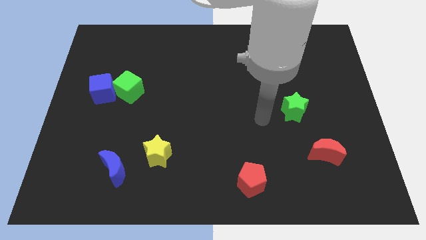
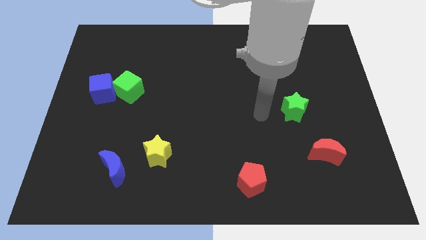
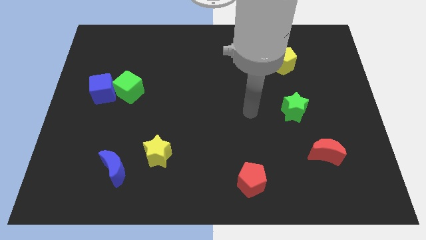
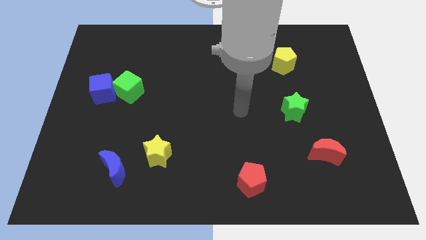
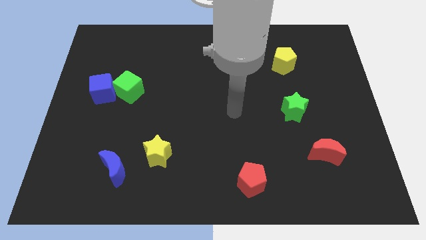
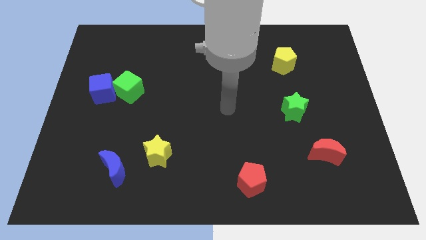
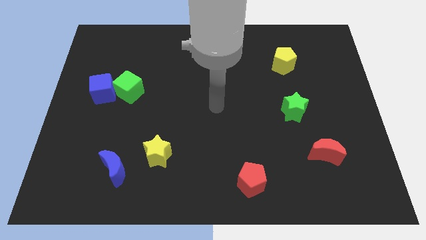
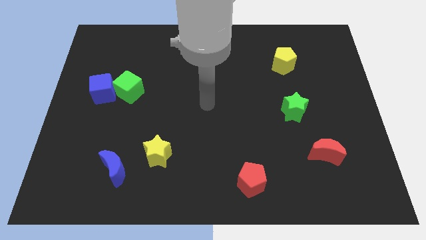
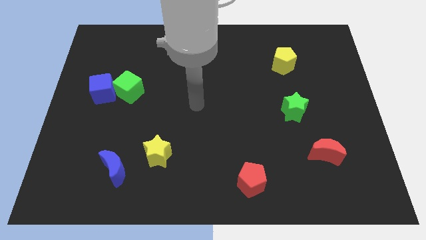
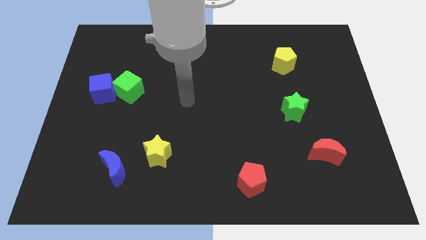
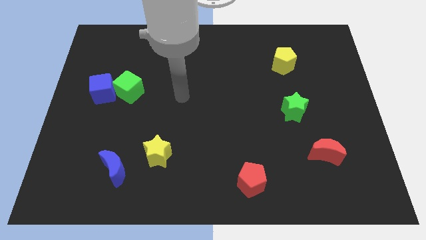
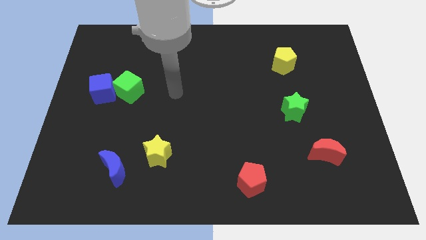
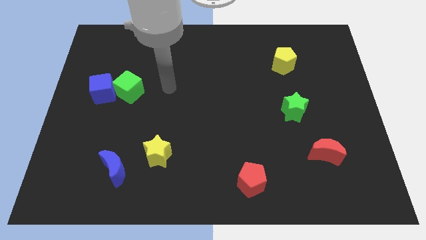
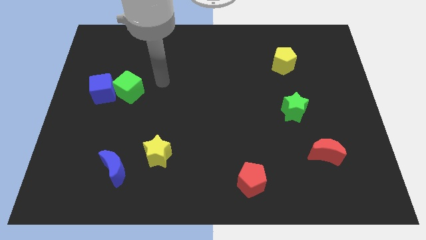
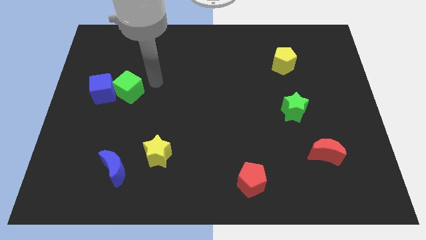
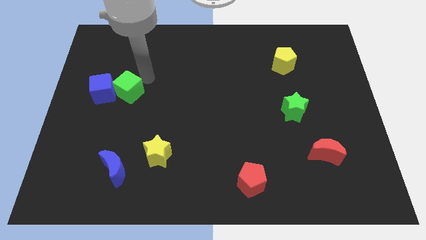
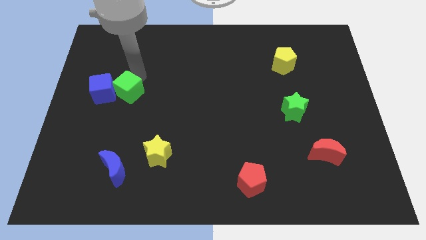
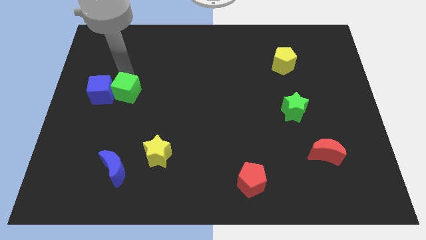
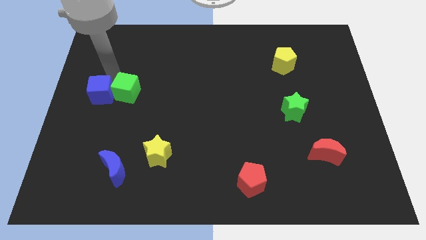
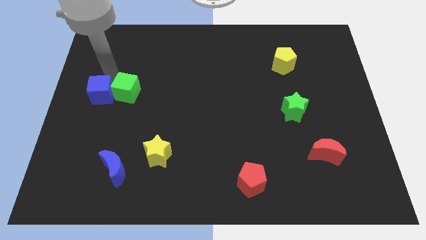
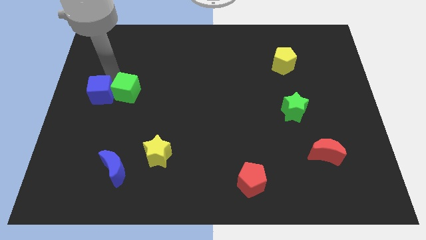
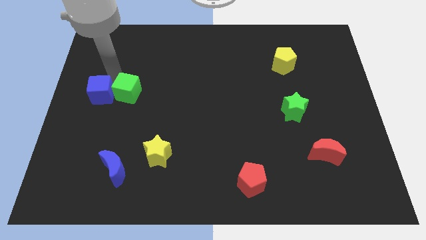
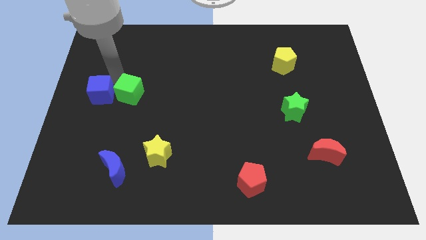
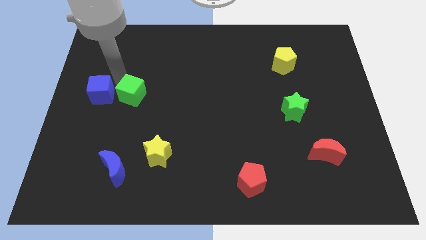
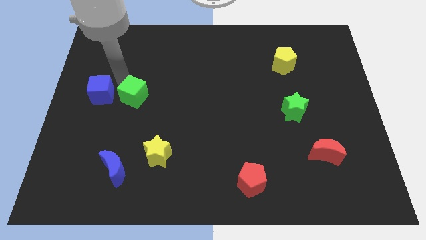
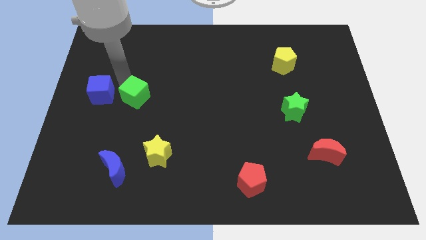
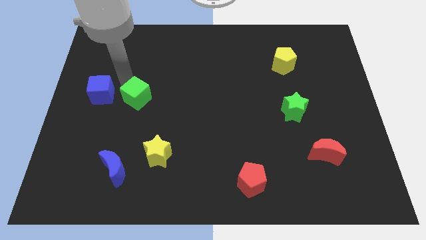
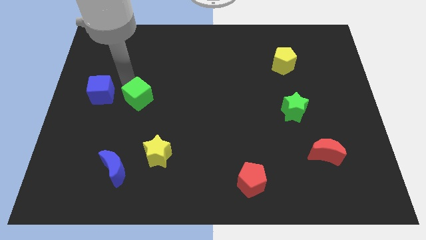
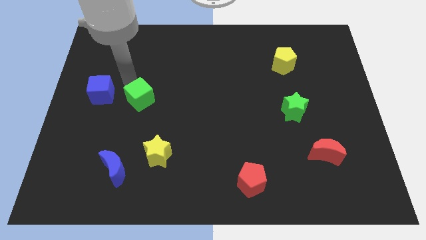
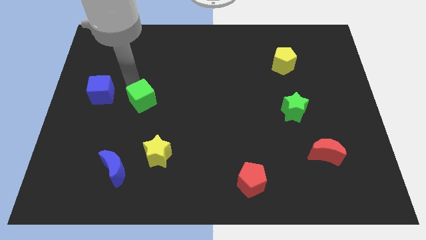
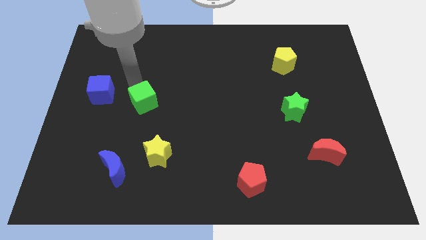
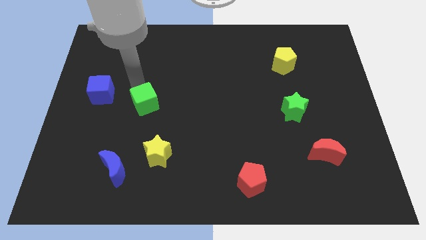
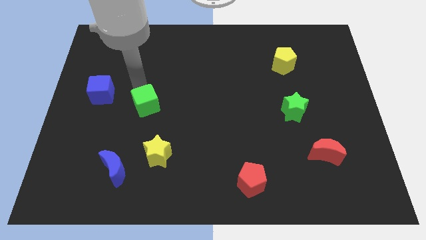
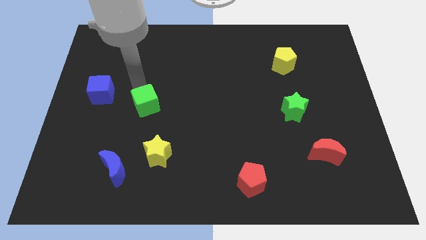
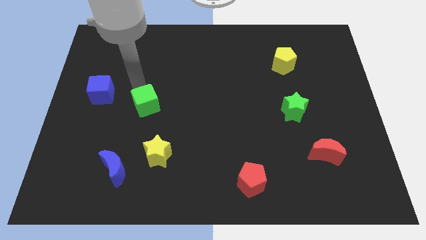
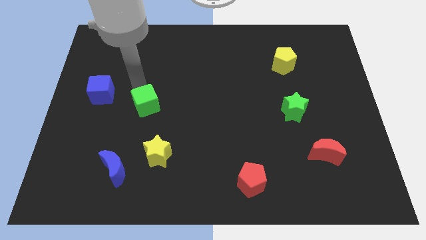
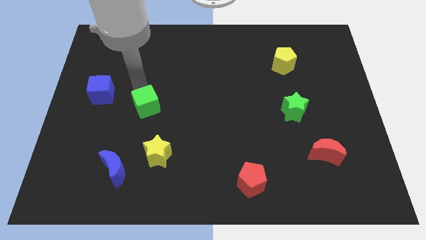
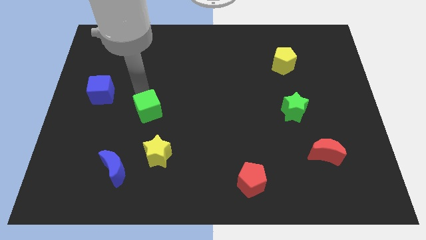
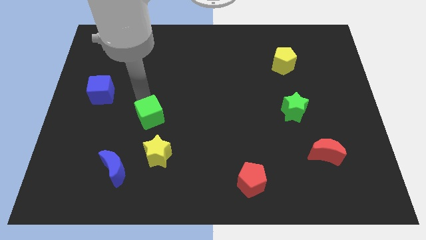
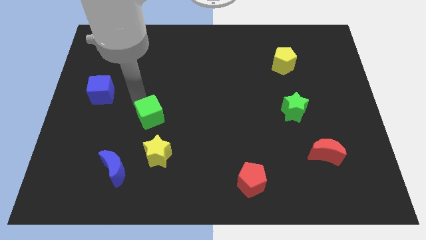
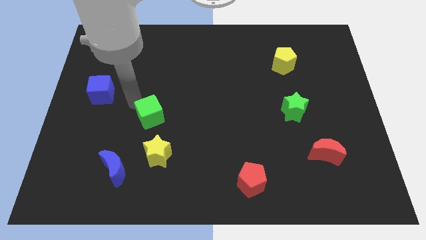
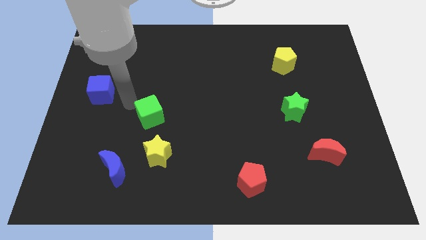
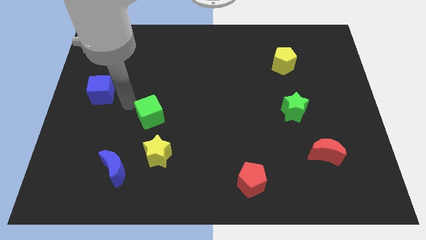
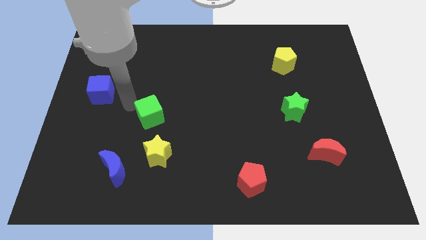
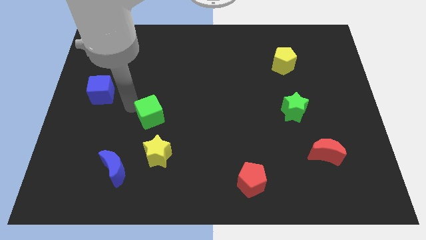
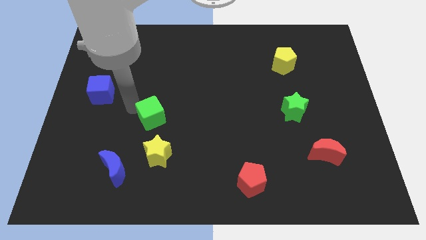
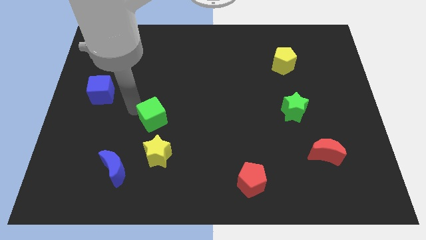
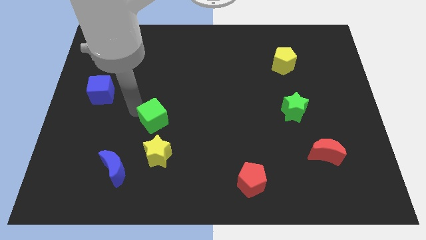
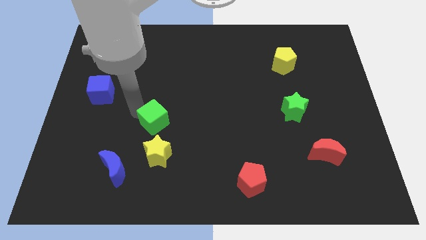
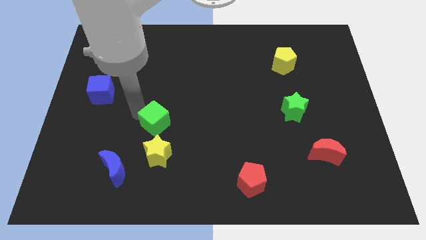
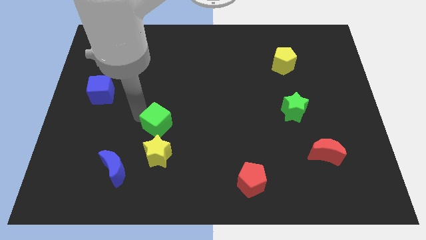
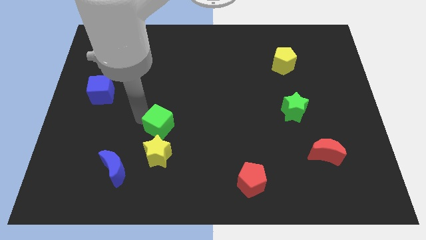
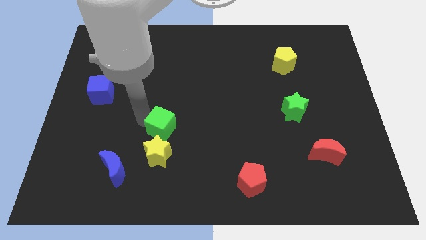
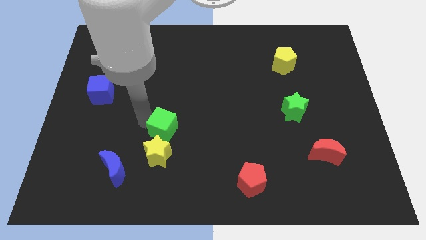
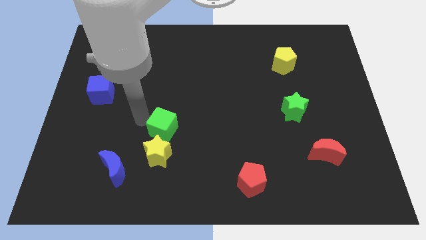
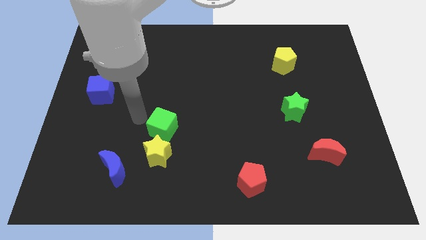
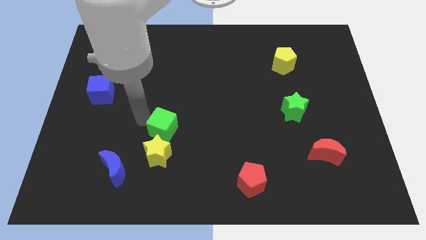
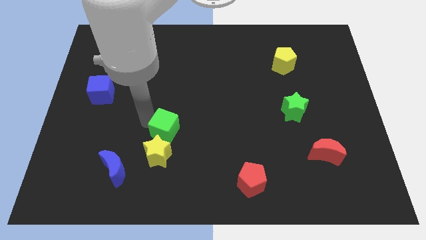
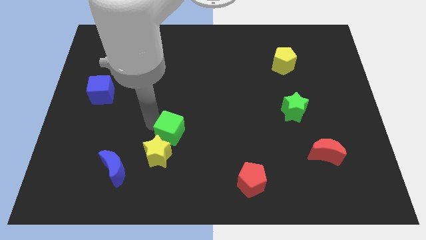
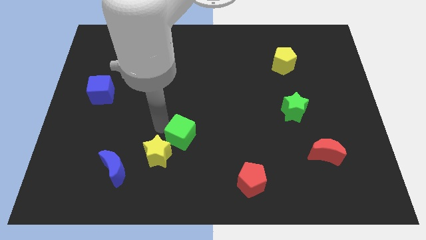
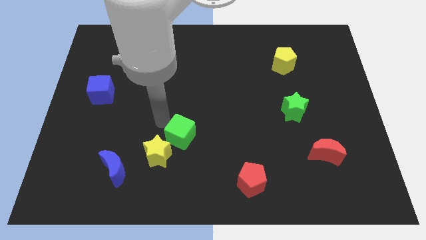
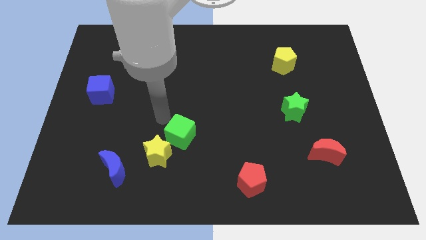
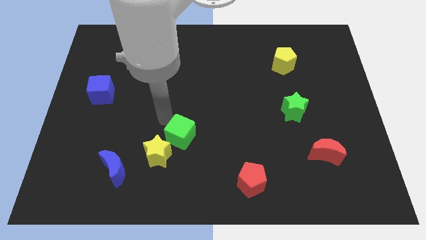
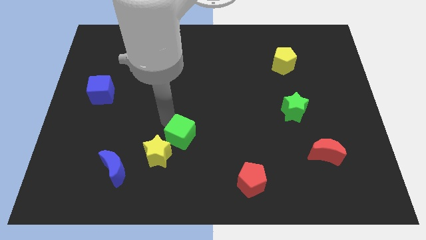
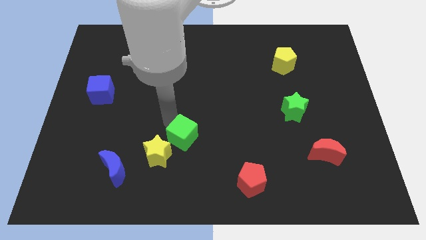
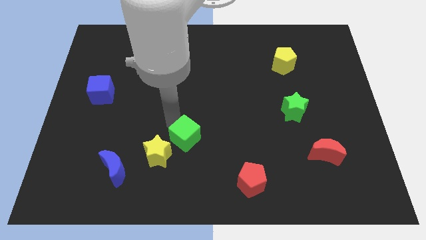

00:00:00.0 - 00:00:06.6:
move the green cube down and right

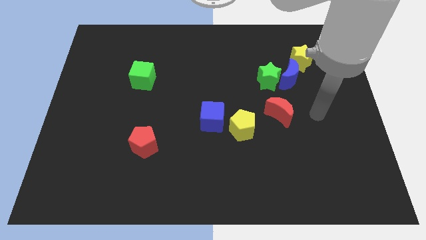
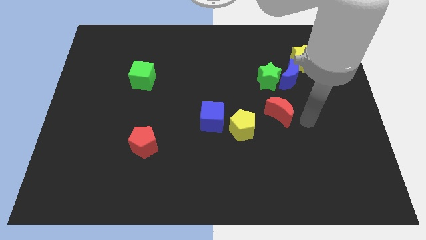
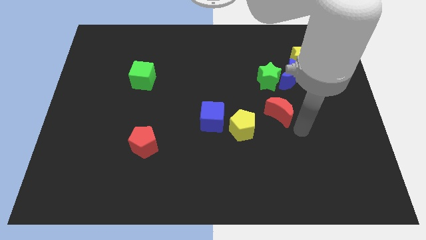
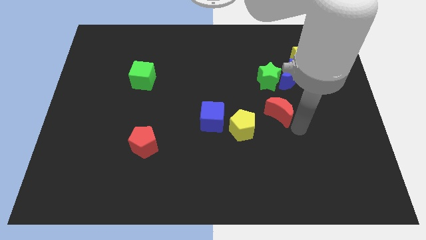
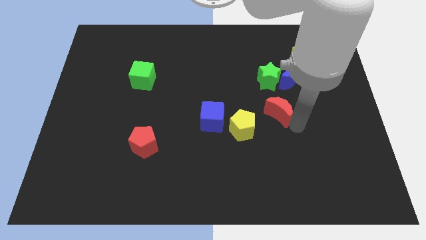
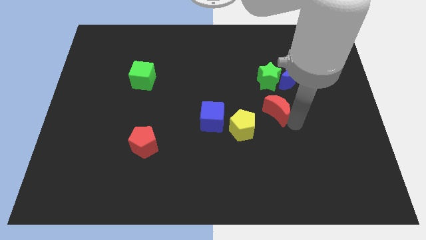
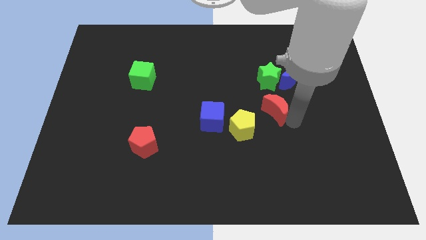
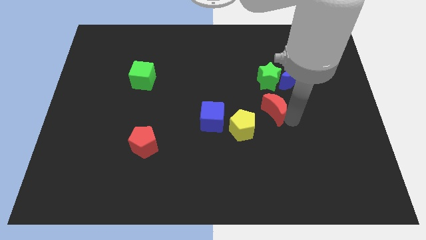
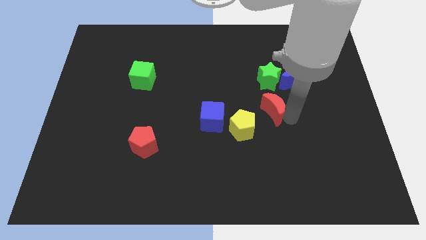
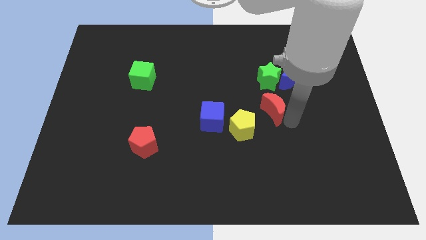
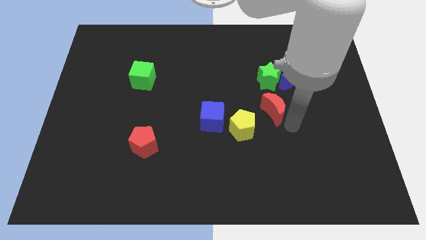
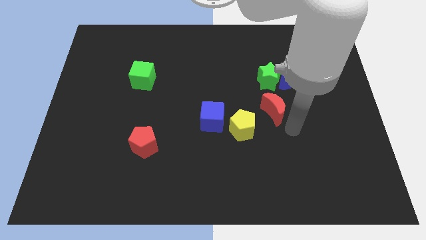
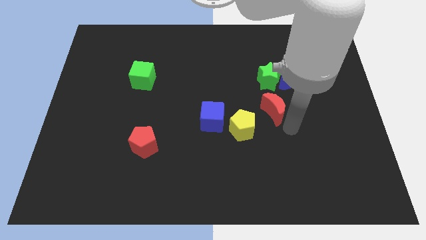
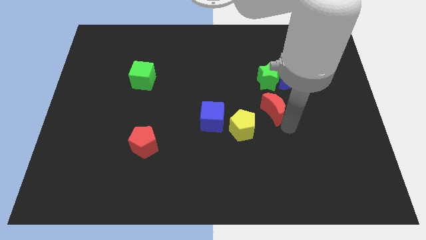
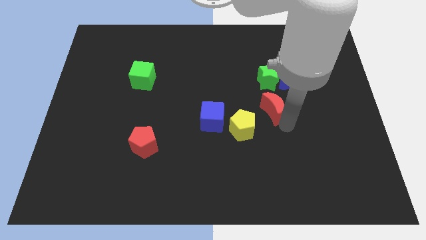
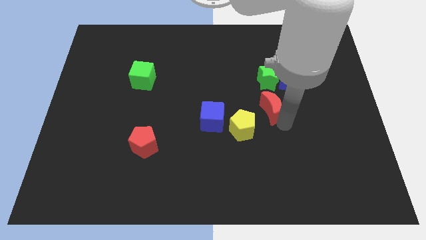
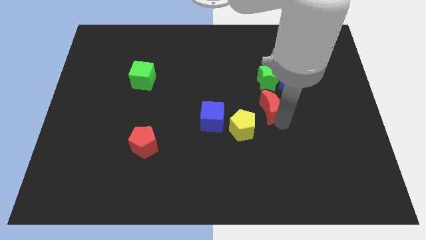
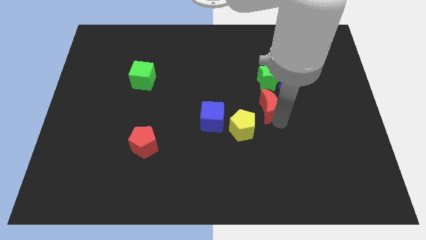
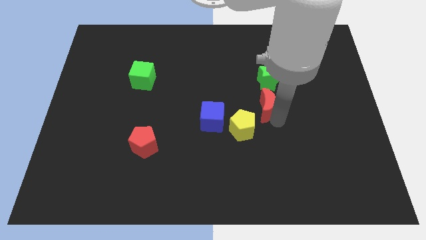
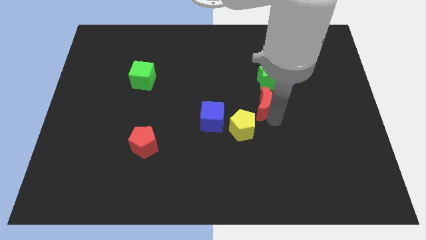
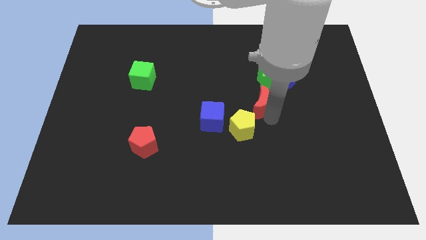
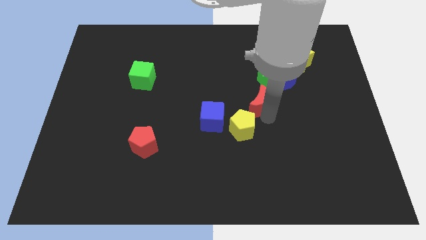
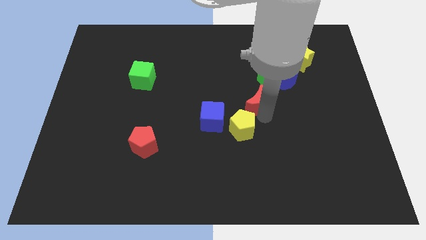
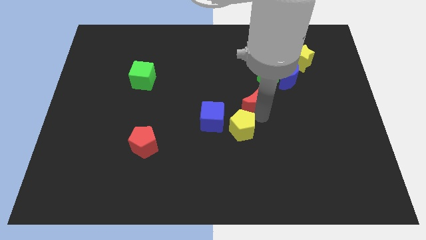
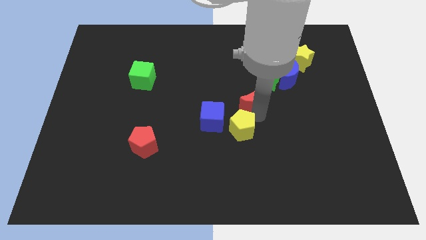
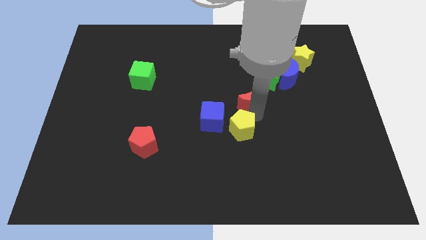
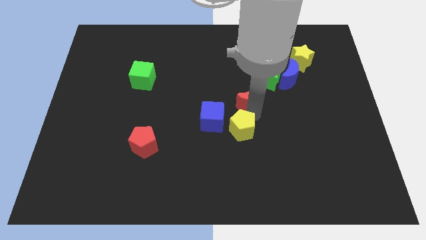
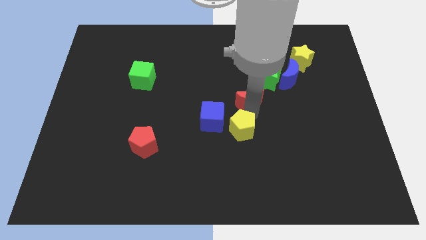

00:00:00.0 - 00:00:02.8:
move the red moon upwards and then to the left a little bit
